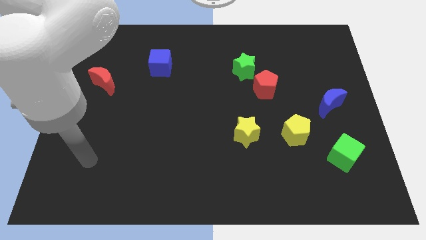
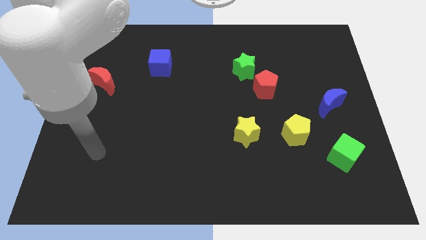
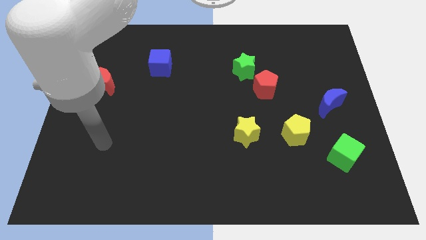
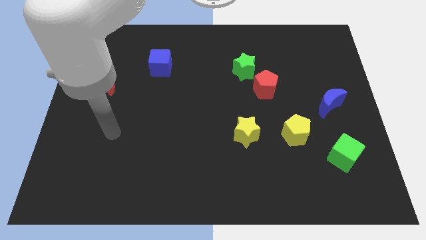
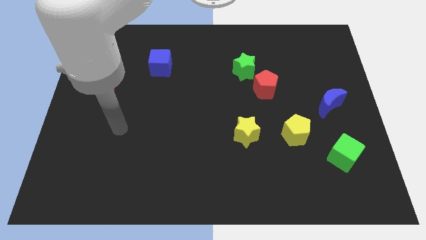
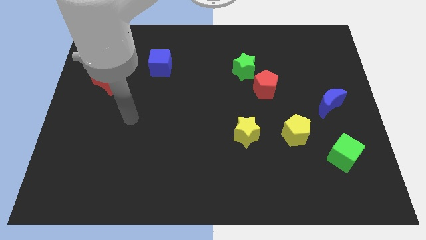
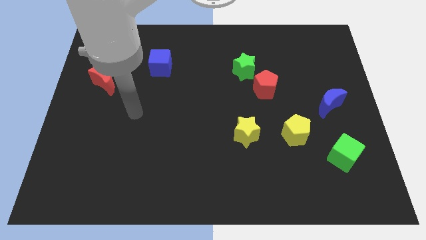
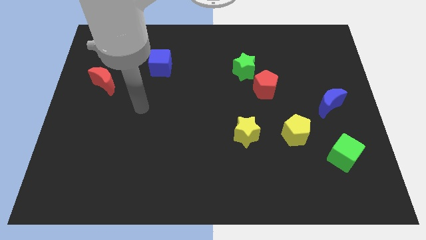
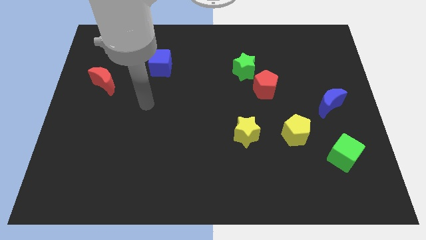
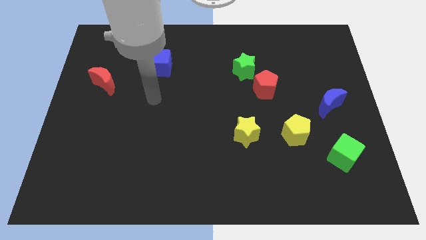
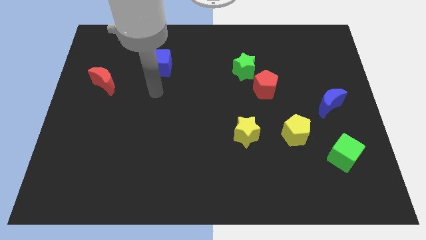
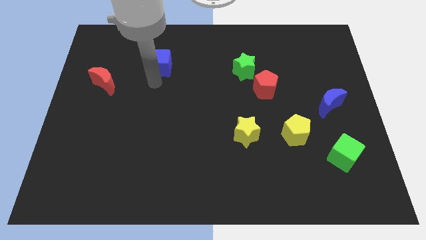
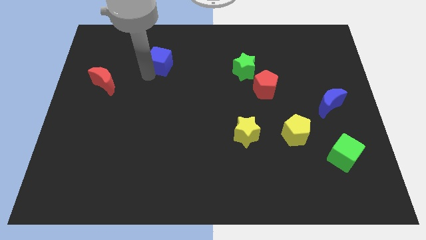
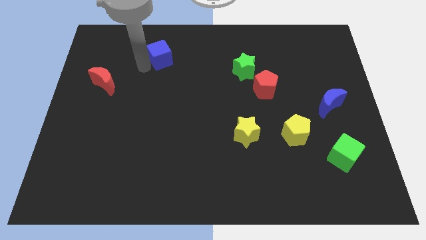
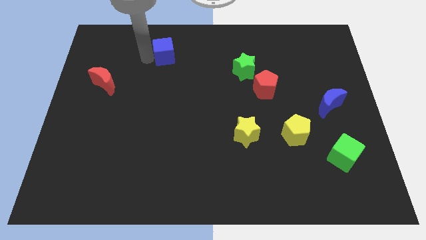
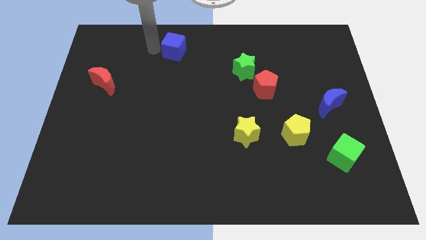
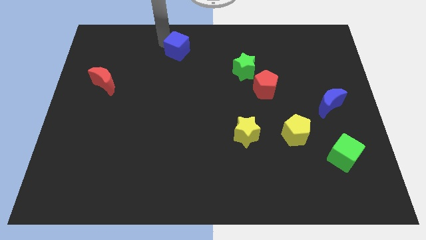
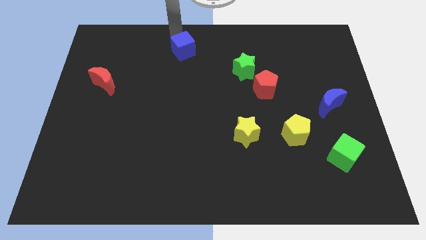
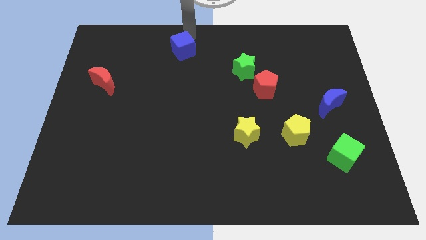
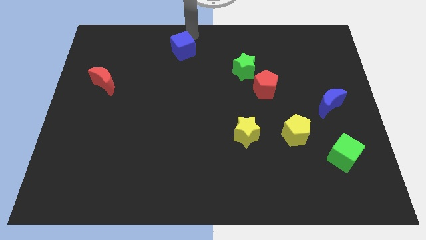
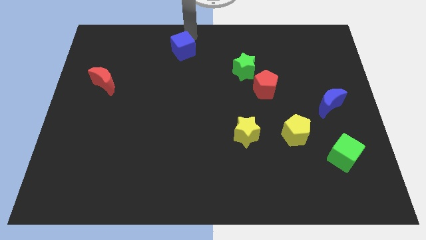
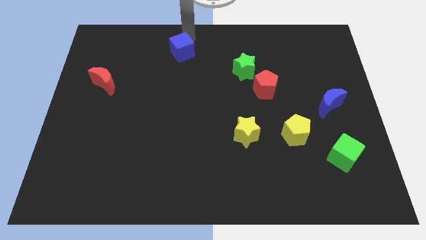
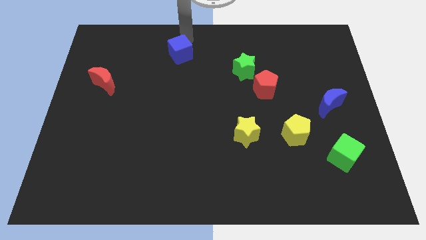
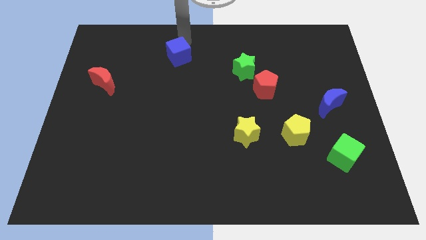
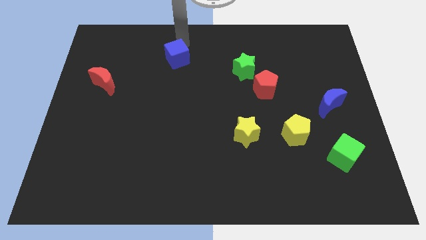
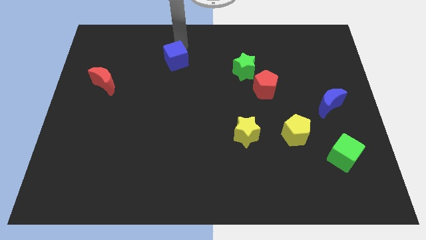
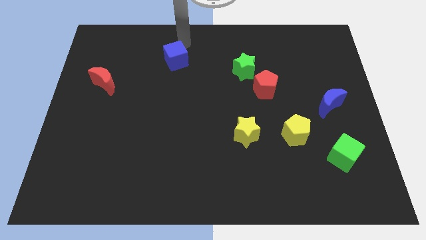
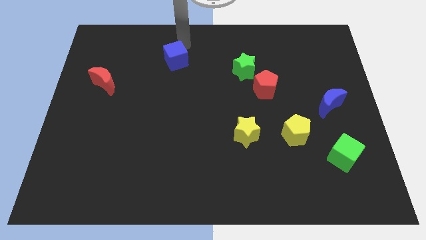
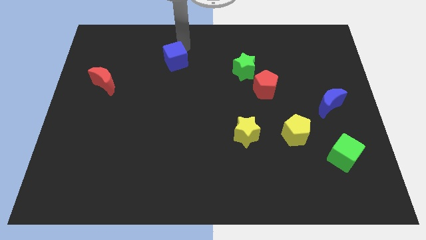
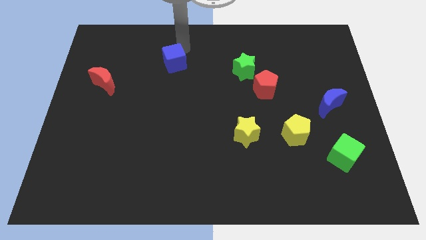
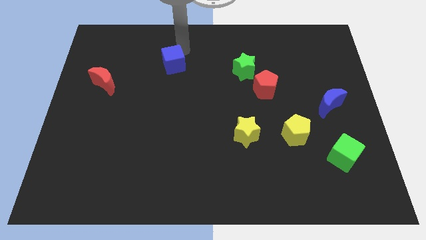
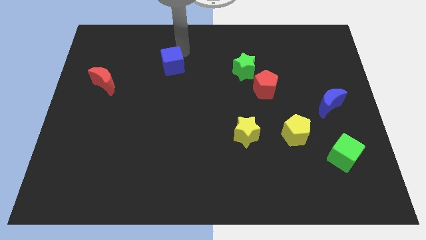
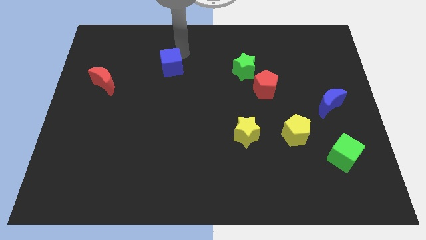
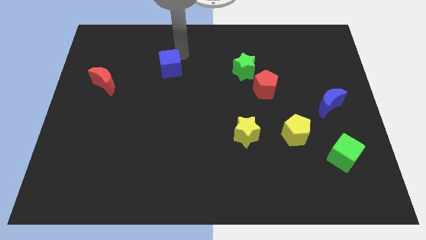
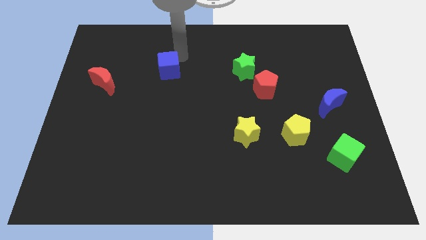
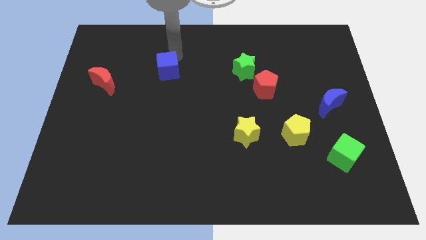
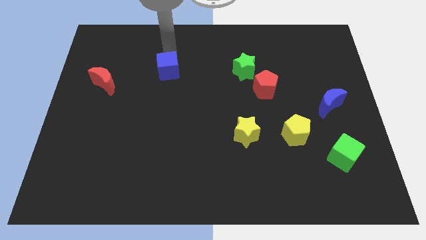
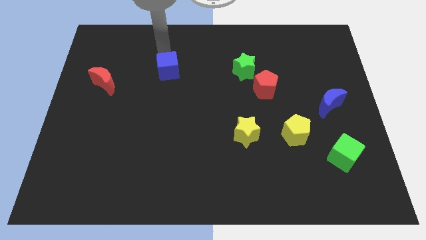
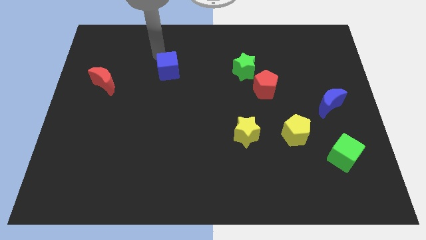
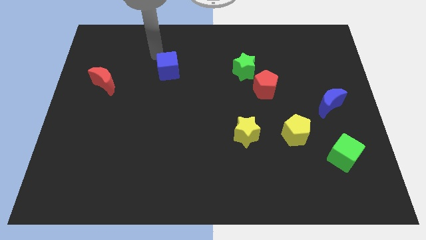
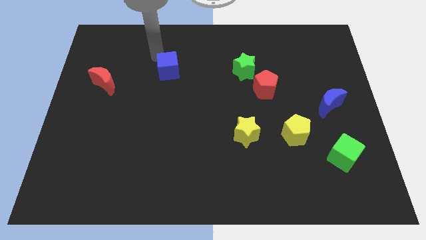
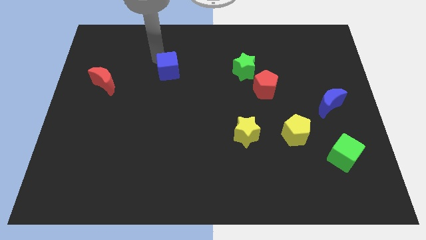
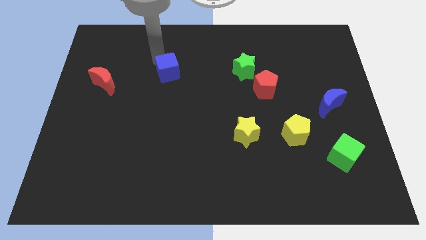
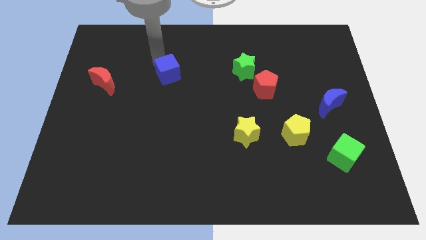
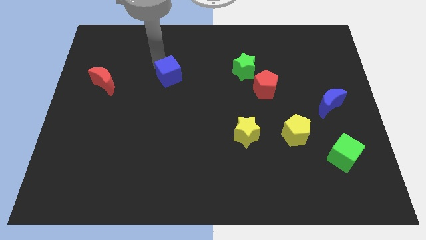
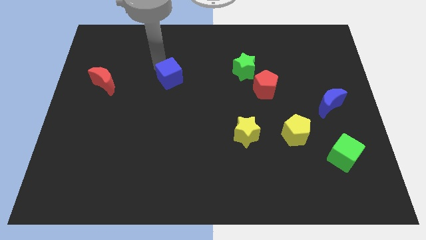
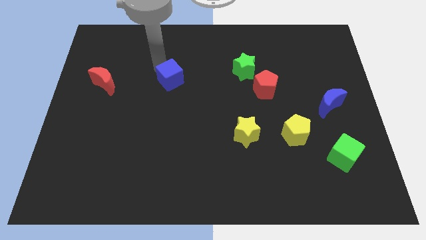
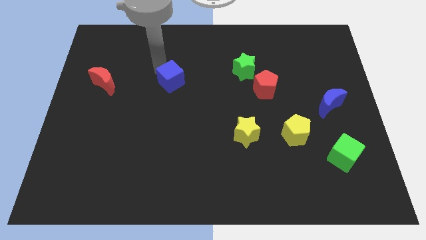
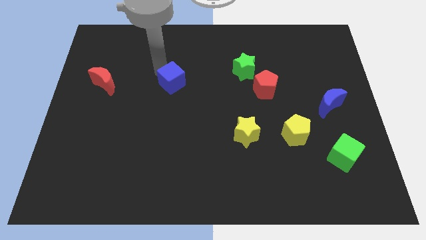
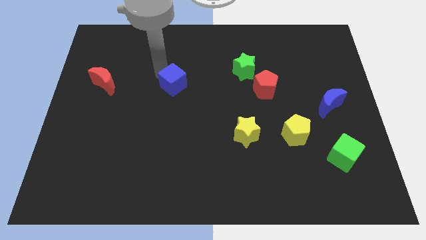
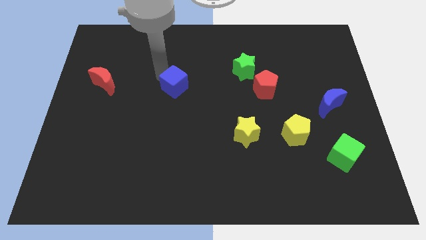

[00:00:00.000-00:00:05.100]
push the blue cube diagonally down and right slightly

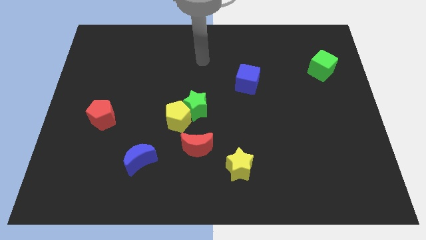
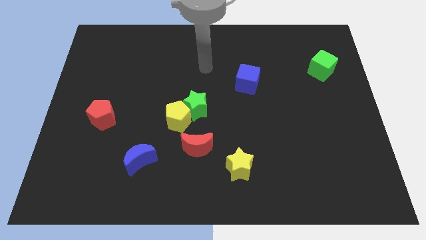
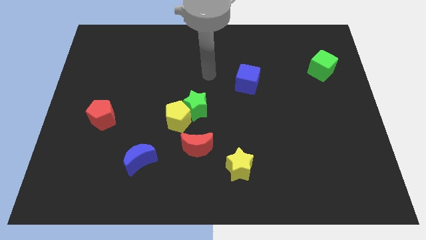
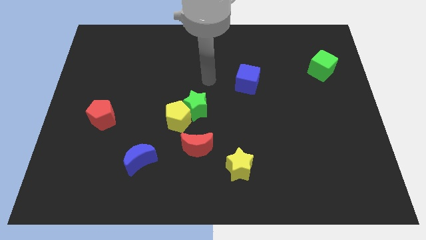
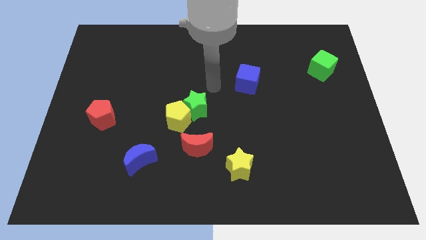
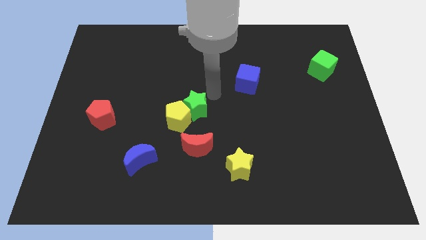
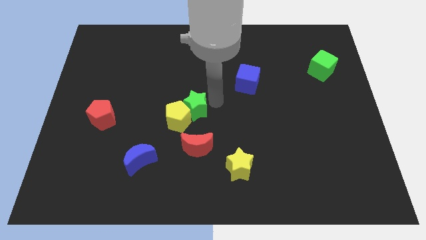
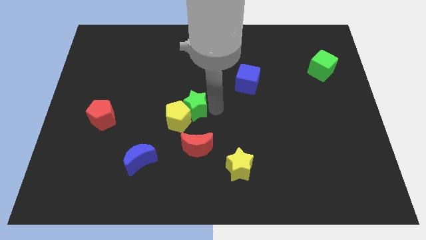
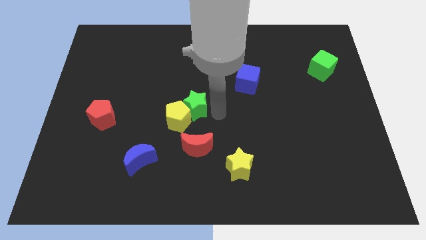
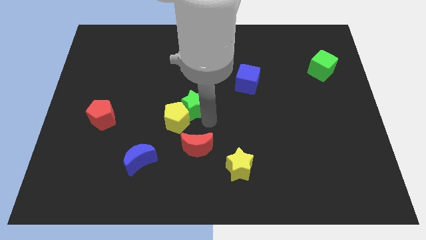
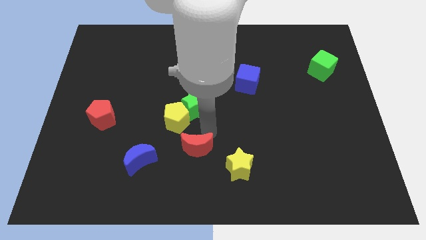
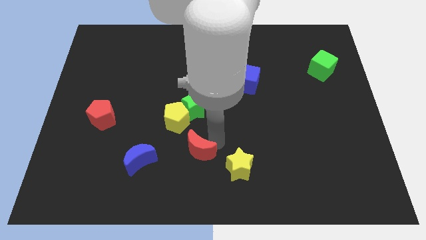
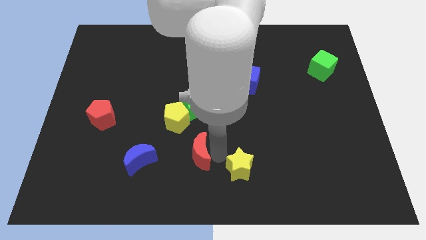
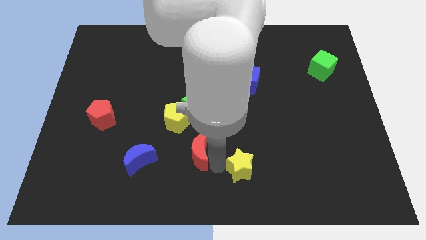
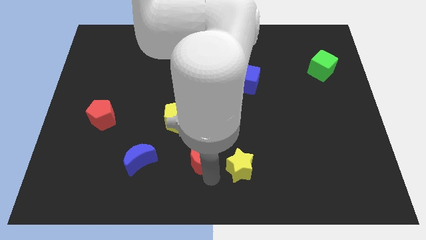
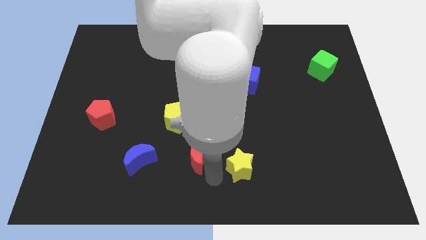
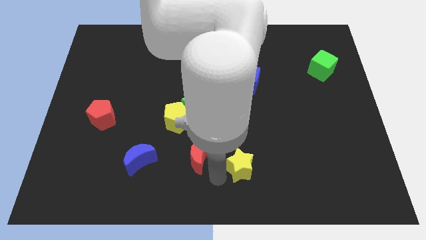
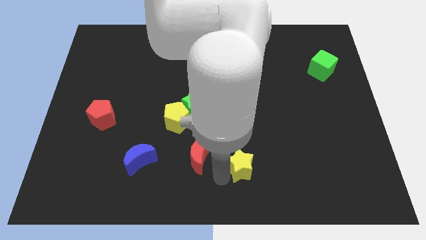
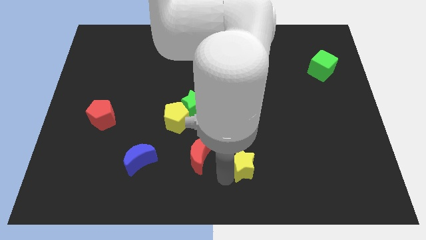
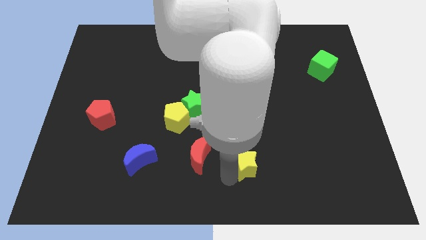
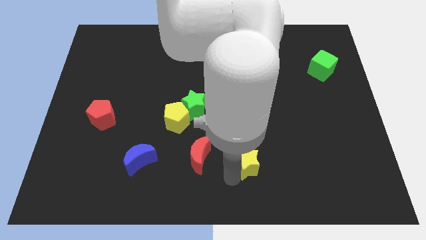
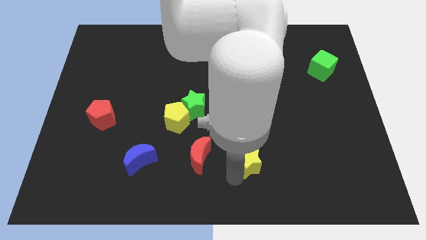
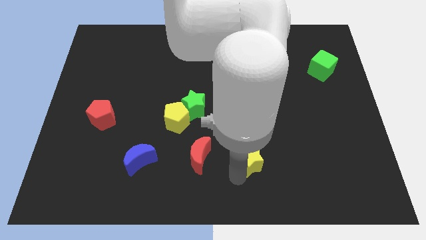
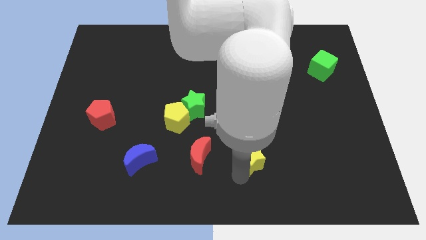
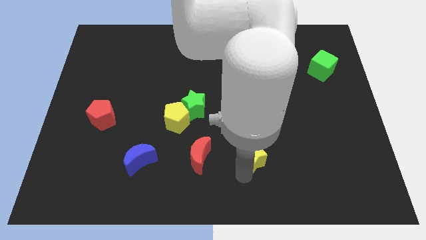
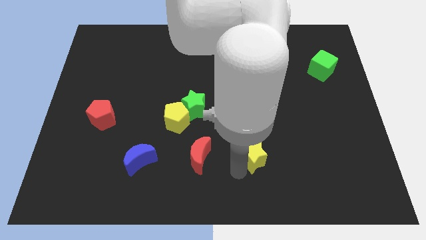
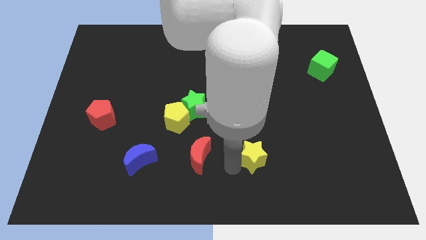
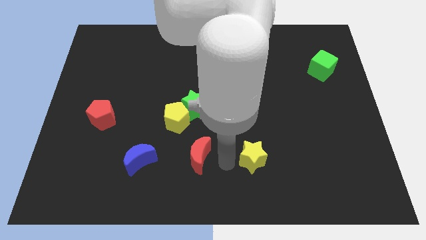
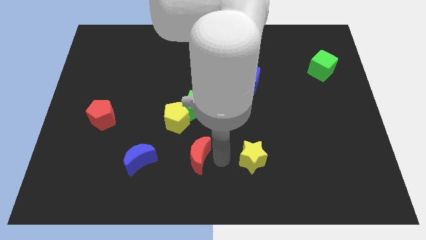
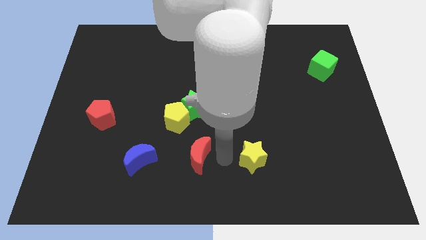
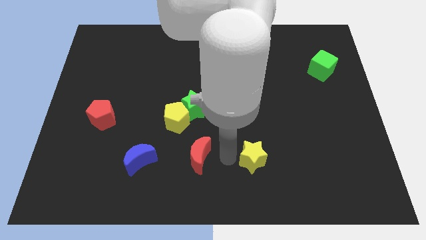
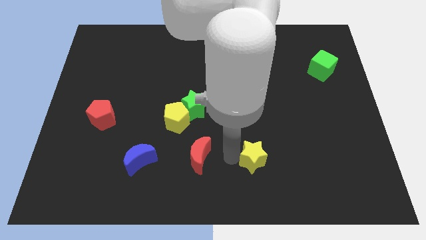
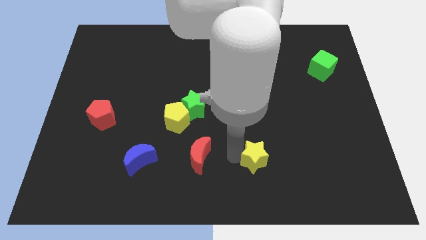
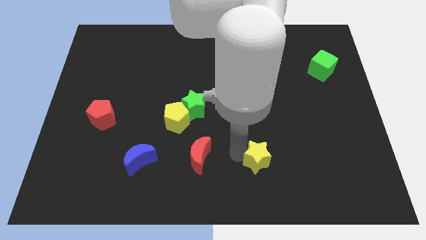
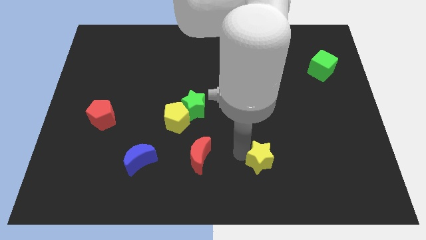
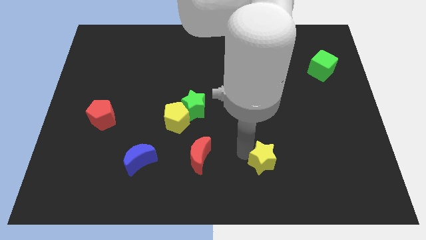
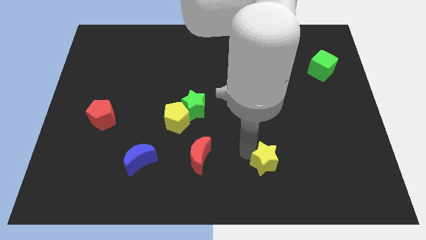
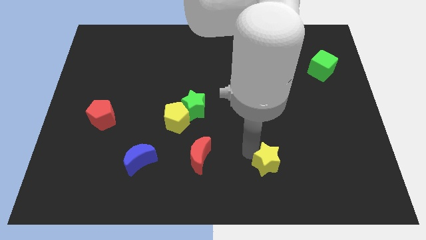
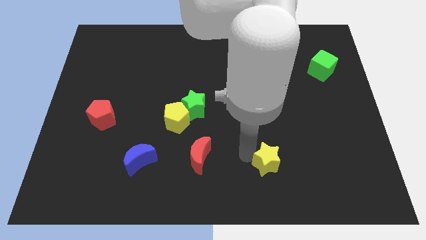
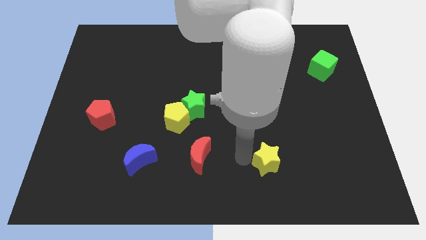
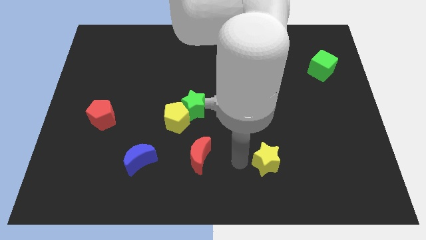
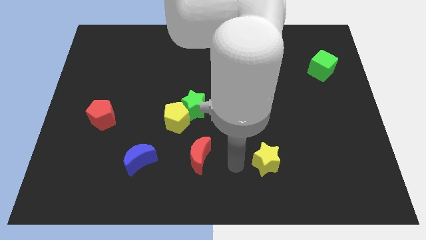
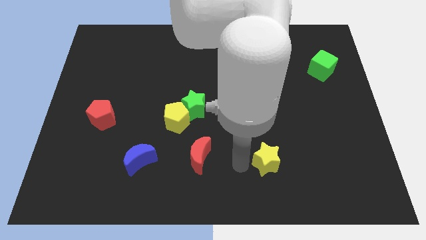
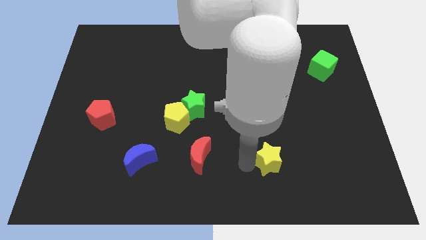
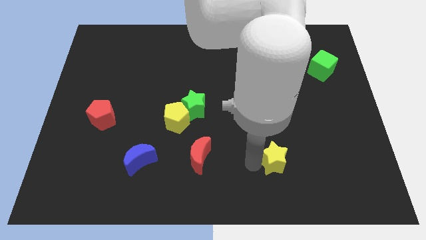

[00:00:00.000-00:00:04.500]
slightly slide the yellow star right
